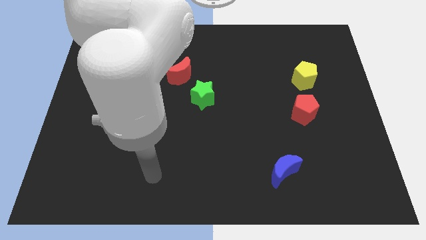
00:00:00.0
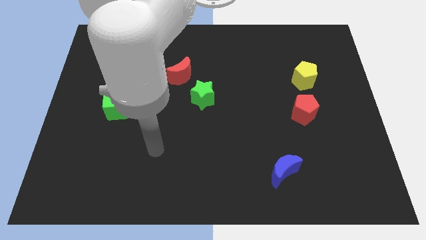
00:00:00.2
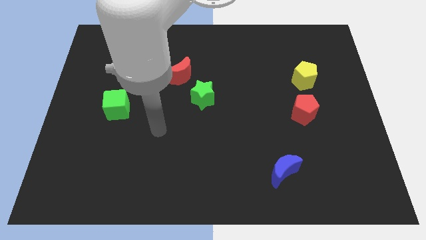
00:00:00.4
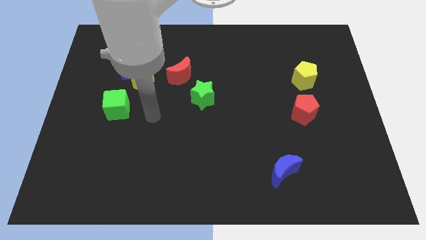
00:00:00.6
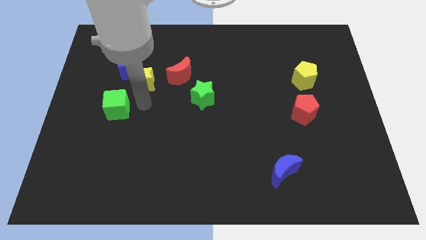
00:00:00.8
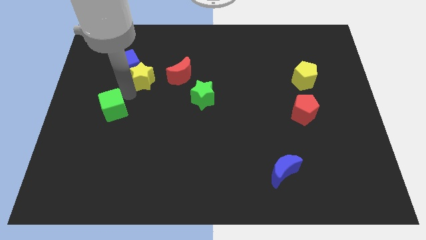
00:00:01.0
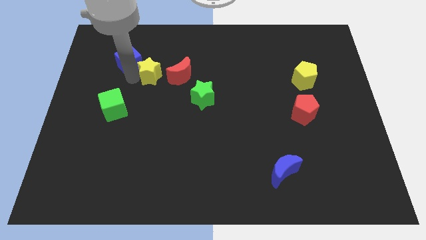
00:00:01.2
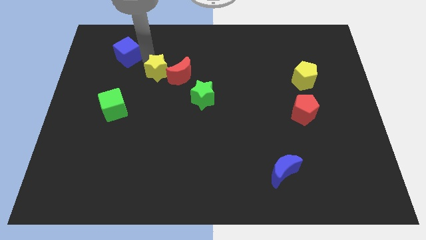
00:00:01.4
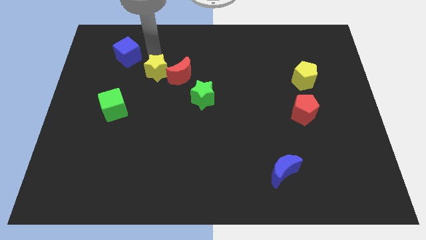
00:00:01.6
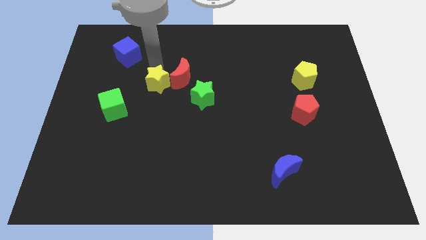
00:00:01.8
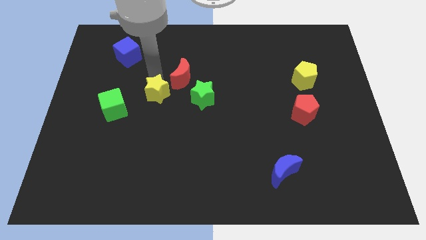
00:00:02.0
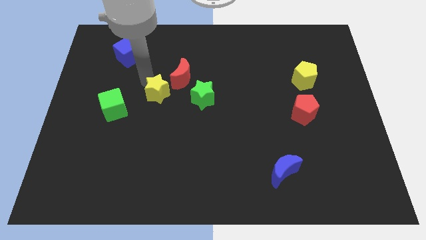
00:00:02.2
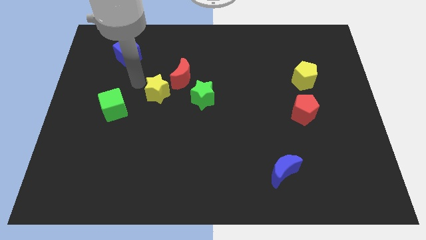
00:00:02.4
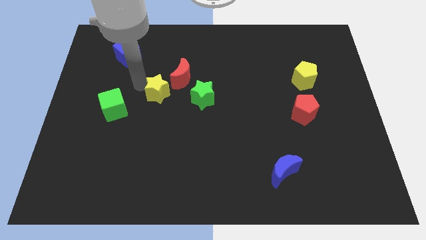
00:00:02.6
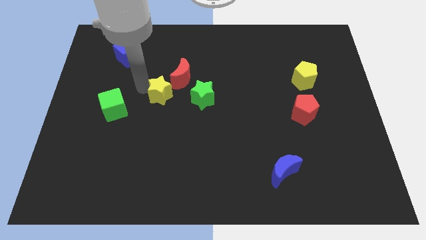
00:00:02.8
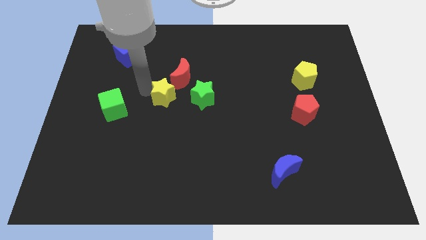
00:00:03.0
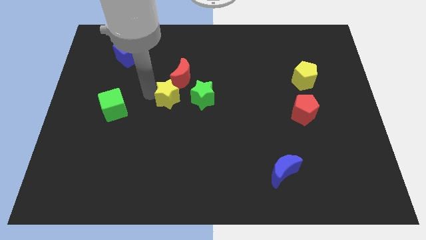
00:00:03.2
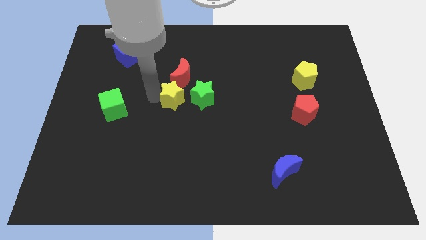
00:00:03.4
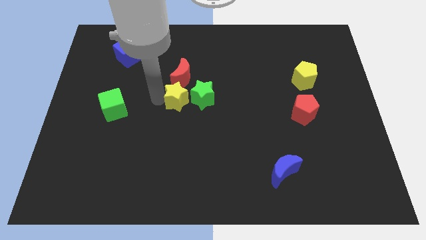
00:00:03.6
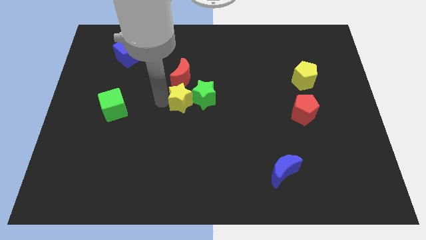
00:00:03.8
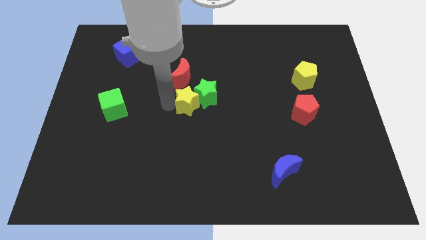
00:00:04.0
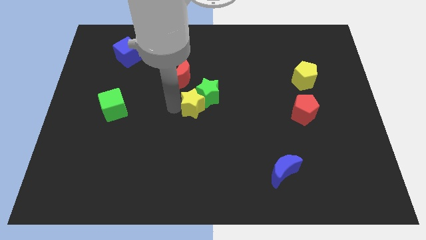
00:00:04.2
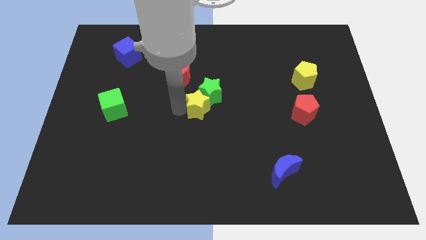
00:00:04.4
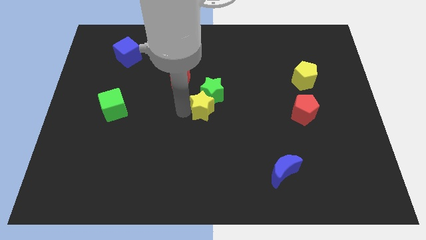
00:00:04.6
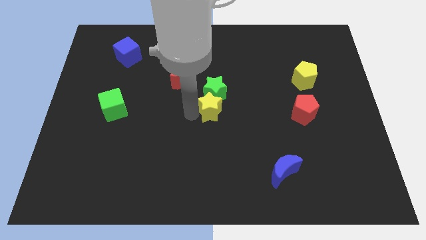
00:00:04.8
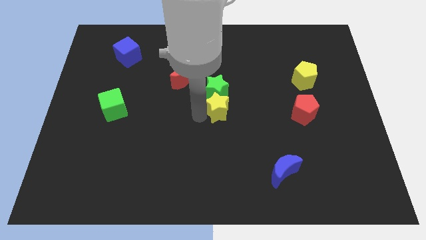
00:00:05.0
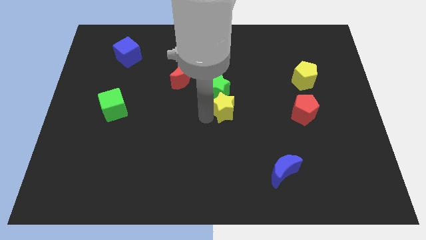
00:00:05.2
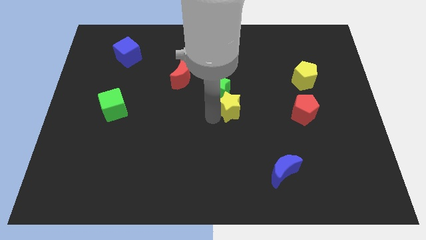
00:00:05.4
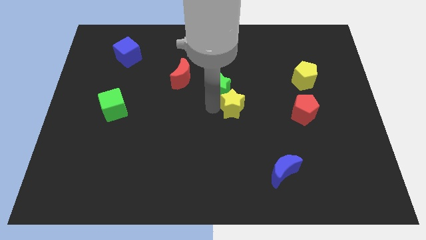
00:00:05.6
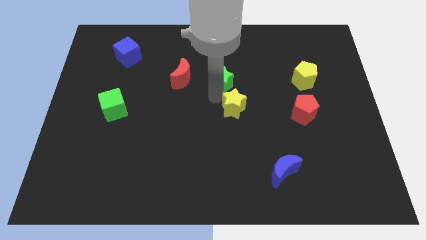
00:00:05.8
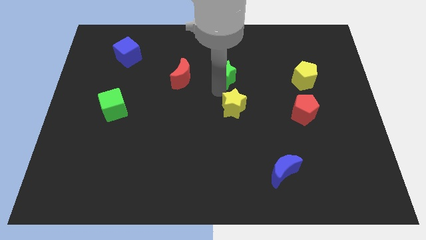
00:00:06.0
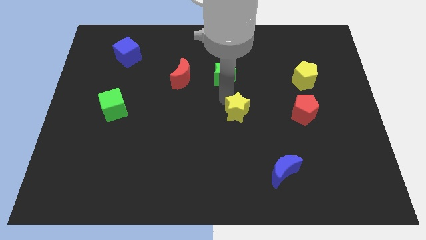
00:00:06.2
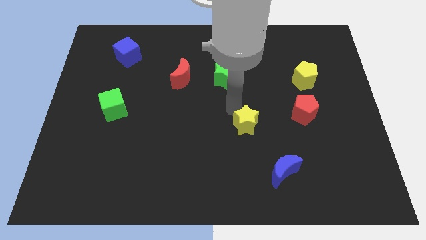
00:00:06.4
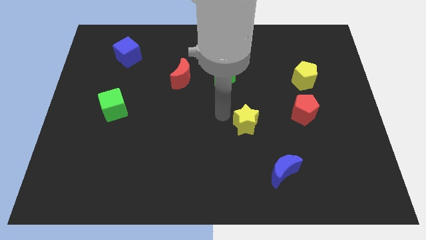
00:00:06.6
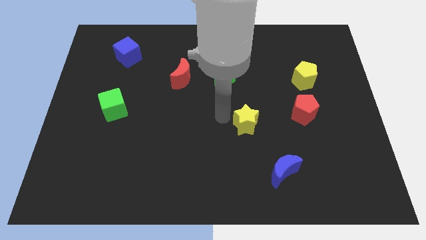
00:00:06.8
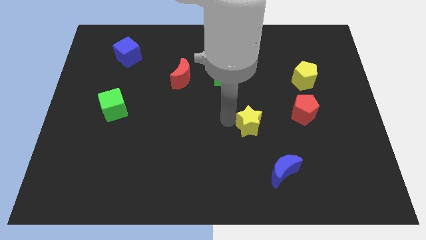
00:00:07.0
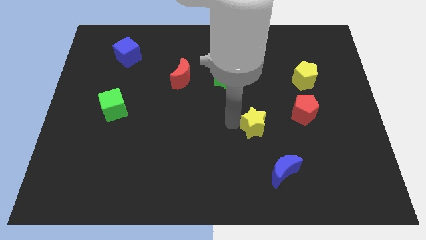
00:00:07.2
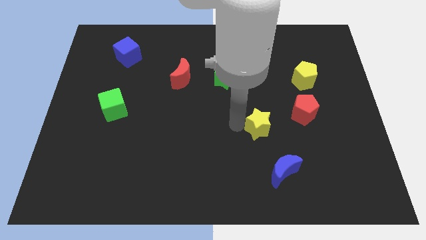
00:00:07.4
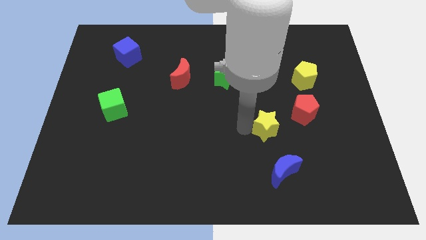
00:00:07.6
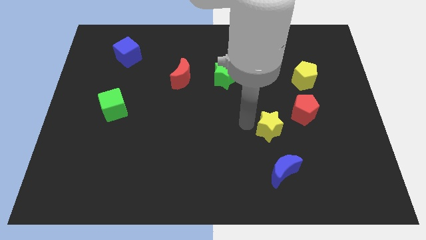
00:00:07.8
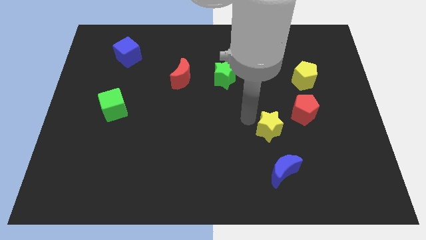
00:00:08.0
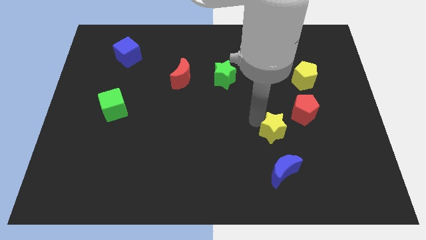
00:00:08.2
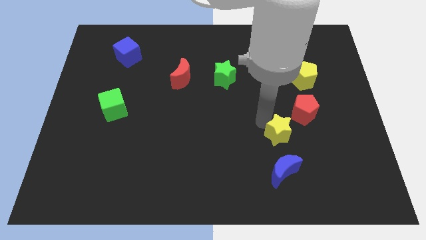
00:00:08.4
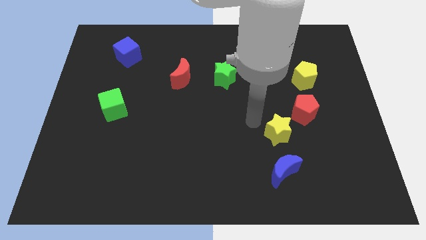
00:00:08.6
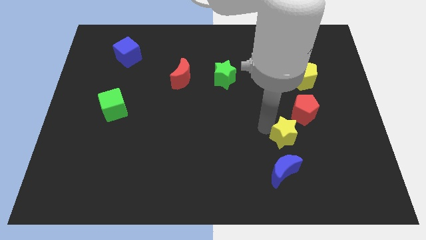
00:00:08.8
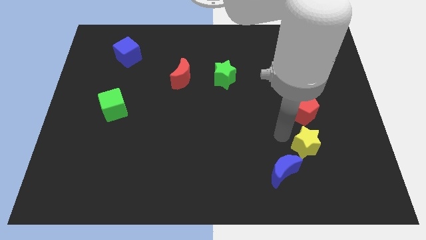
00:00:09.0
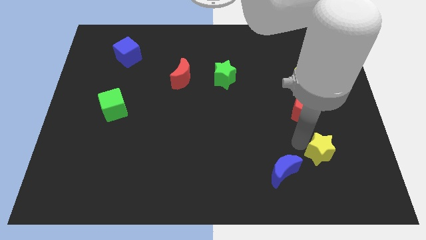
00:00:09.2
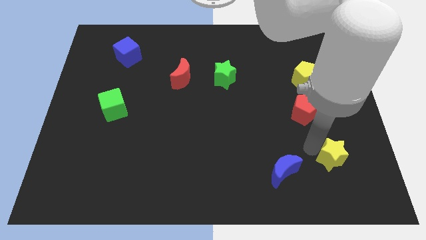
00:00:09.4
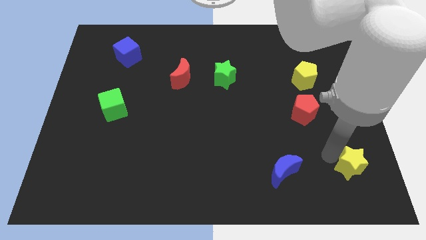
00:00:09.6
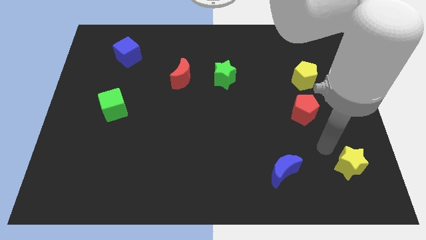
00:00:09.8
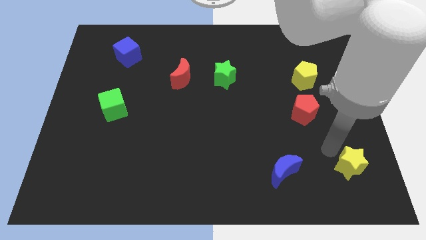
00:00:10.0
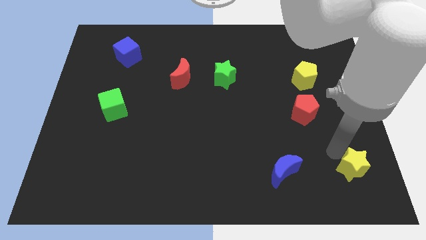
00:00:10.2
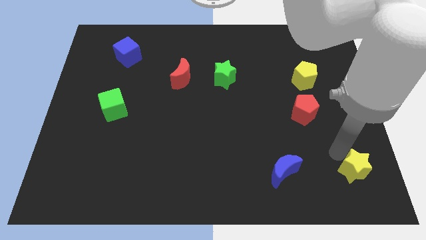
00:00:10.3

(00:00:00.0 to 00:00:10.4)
move the yellow star to the bottom right of the board

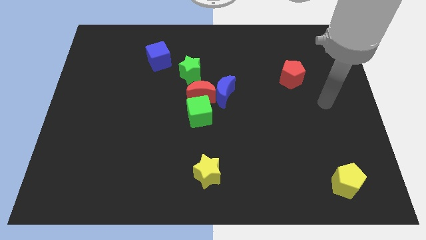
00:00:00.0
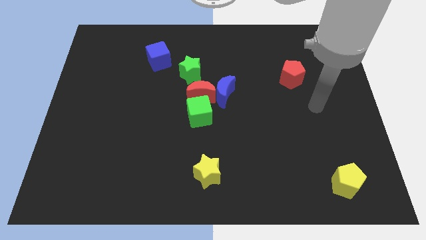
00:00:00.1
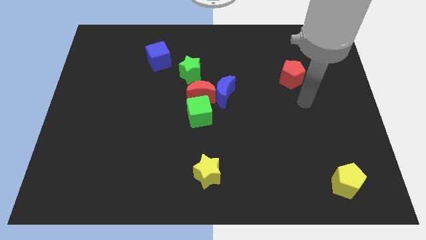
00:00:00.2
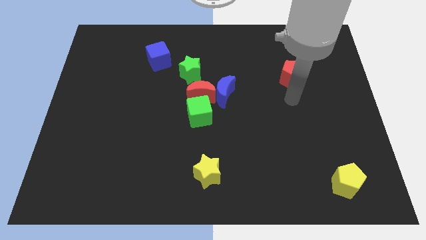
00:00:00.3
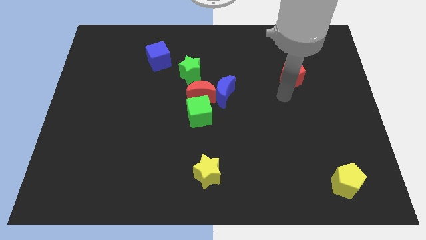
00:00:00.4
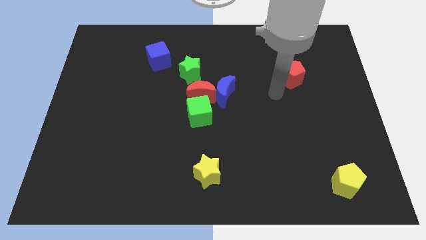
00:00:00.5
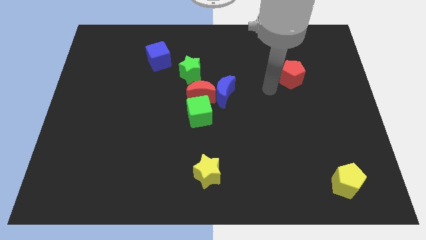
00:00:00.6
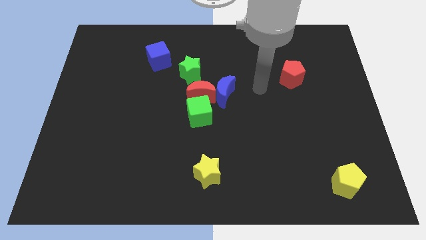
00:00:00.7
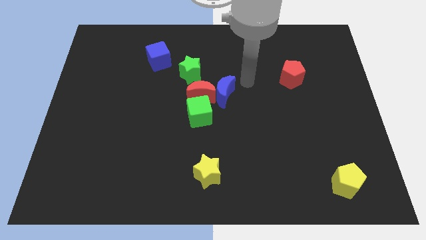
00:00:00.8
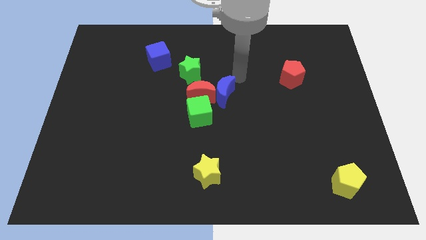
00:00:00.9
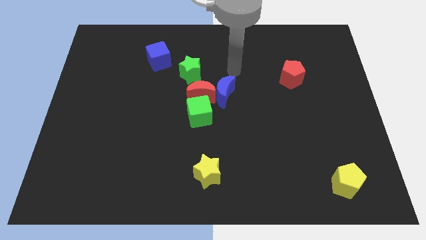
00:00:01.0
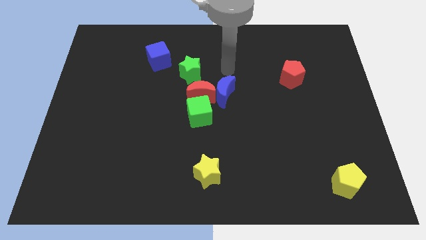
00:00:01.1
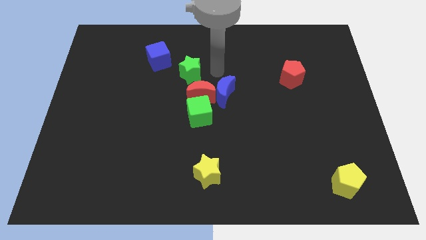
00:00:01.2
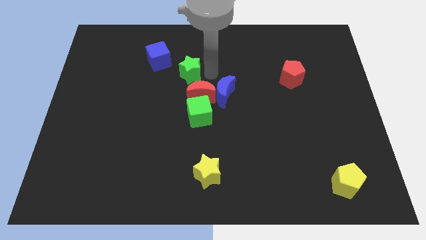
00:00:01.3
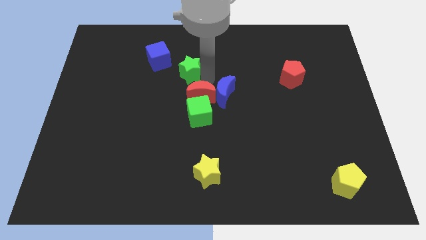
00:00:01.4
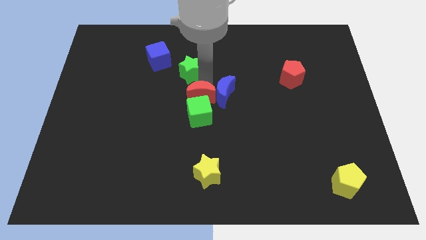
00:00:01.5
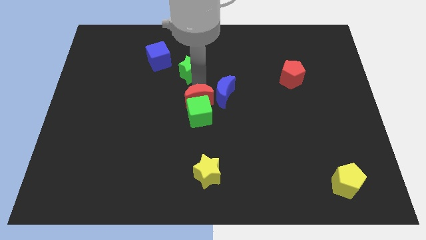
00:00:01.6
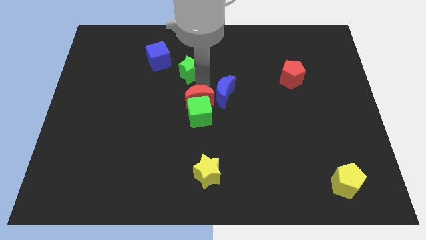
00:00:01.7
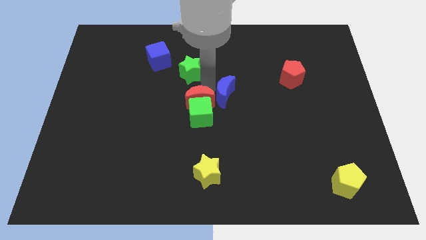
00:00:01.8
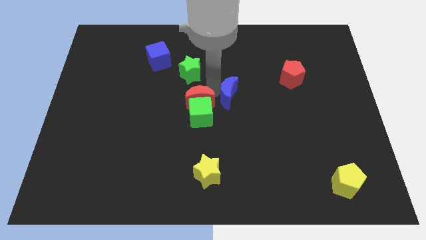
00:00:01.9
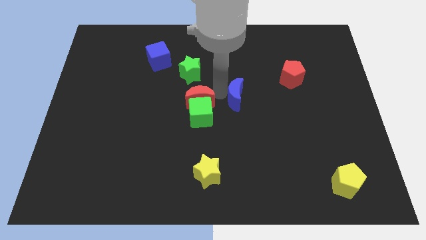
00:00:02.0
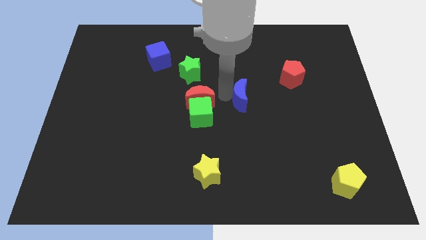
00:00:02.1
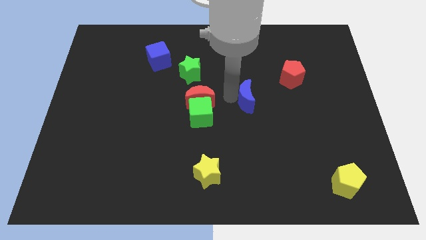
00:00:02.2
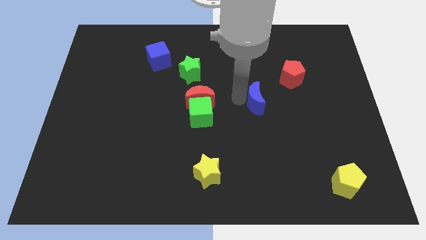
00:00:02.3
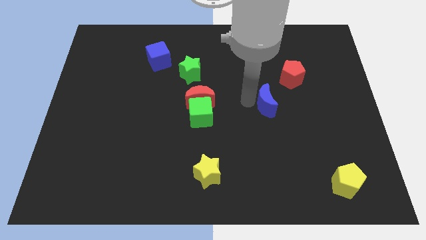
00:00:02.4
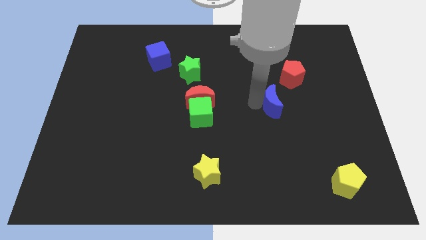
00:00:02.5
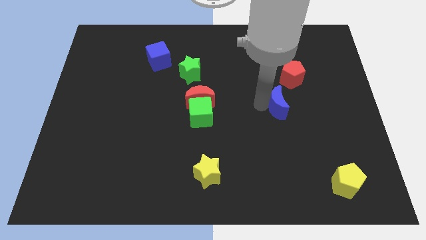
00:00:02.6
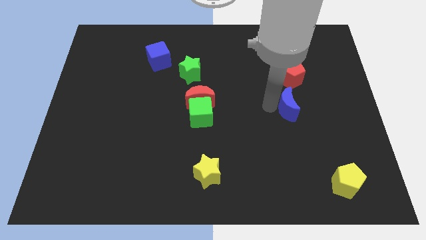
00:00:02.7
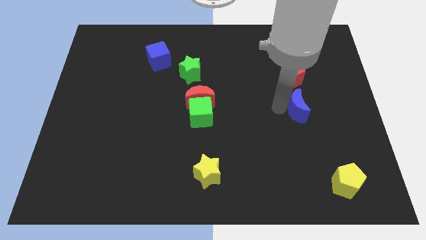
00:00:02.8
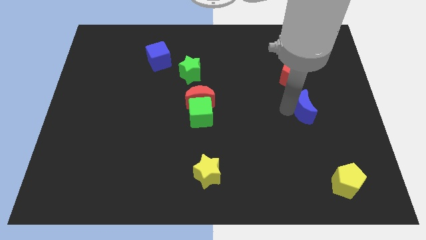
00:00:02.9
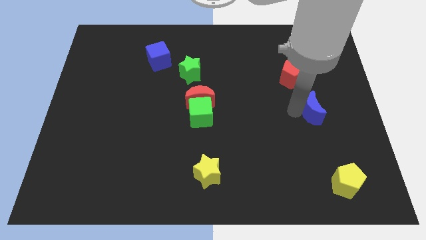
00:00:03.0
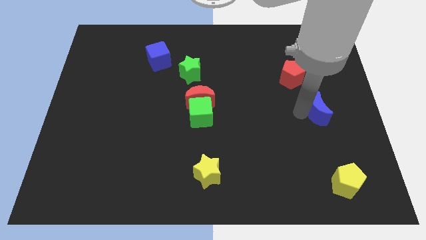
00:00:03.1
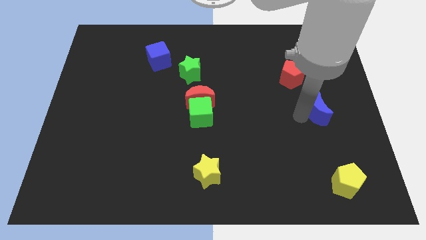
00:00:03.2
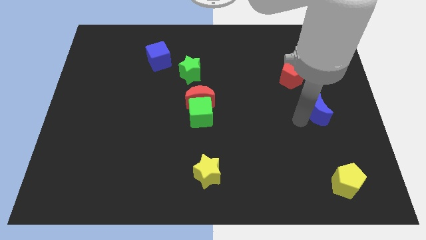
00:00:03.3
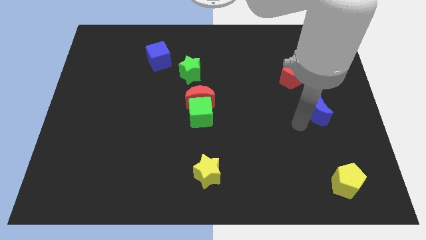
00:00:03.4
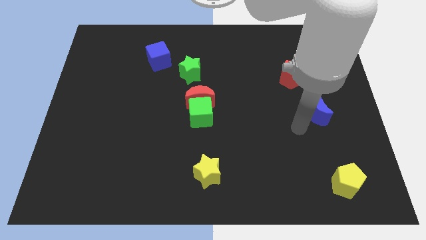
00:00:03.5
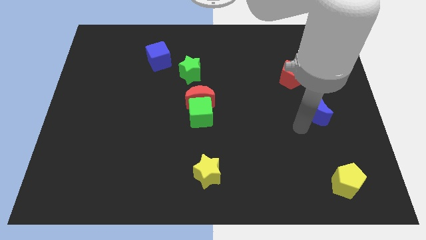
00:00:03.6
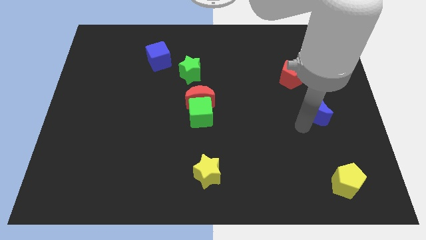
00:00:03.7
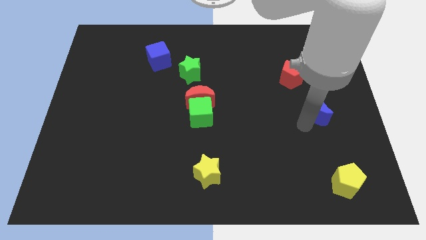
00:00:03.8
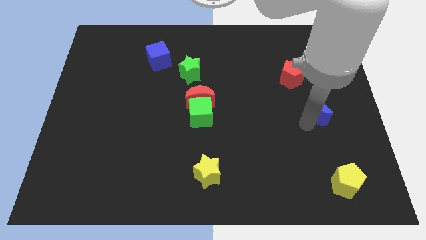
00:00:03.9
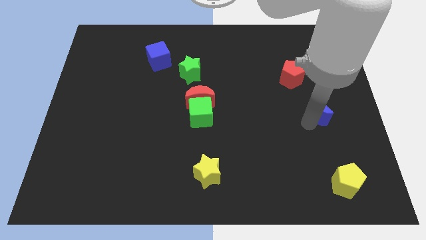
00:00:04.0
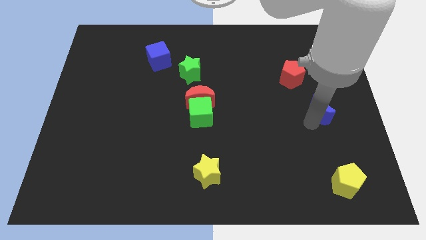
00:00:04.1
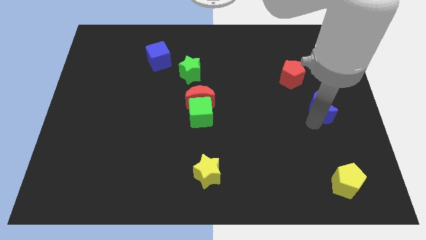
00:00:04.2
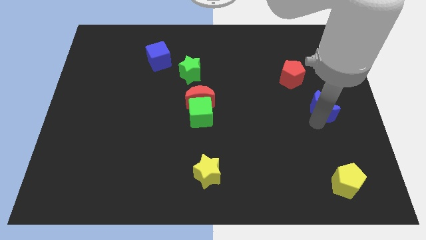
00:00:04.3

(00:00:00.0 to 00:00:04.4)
put the blue moon to the center right
